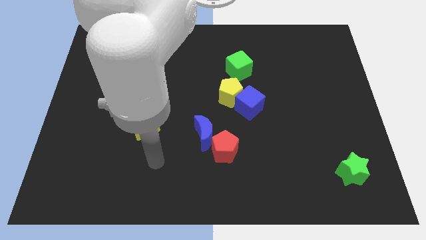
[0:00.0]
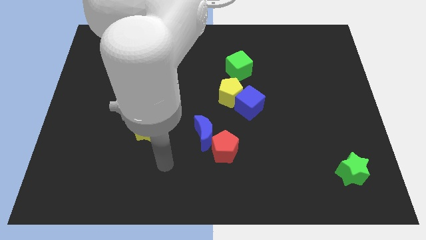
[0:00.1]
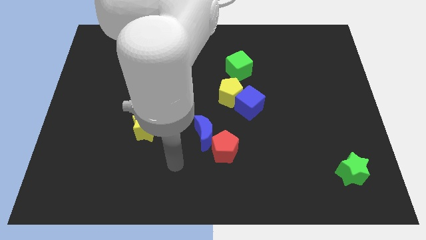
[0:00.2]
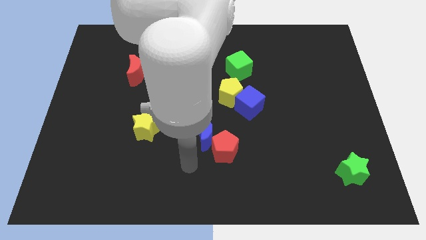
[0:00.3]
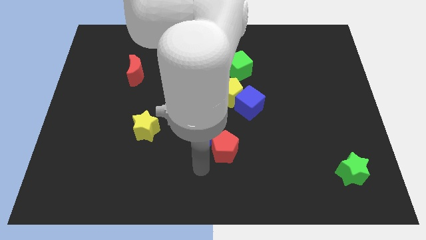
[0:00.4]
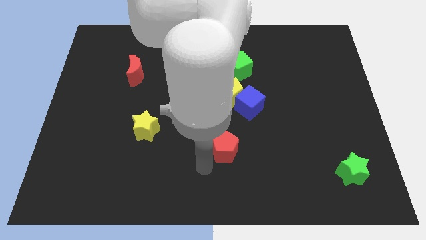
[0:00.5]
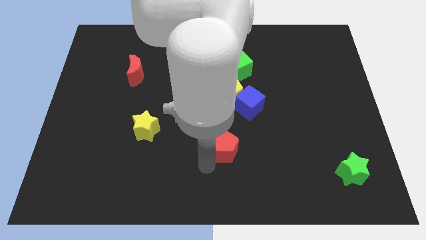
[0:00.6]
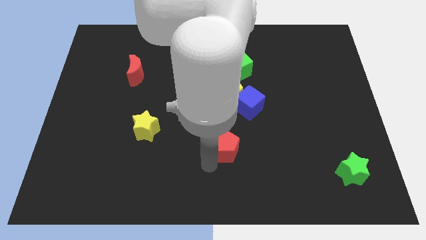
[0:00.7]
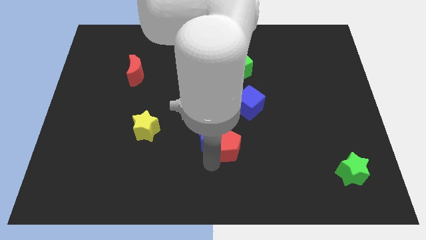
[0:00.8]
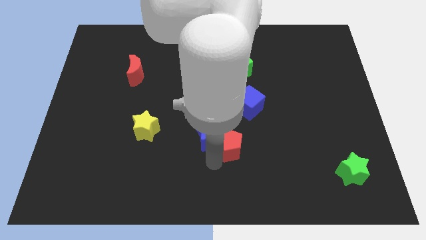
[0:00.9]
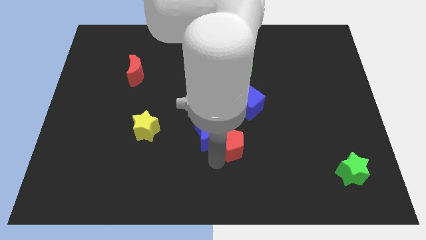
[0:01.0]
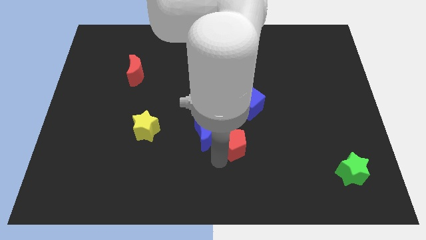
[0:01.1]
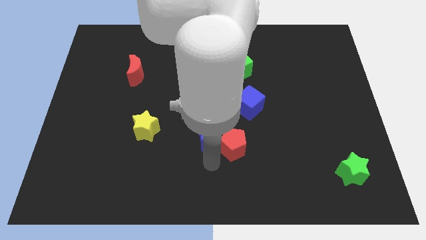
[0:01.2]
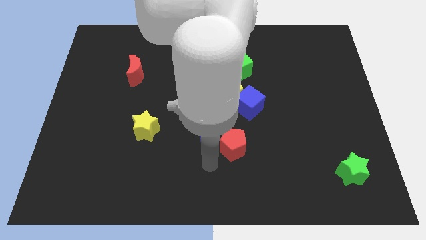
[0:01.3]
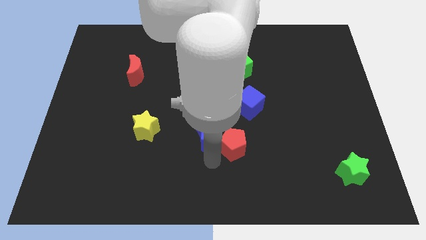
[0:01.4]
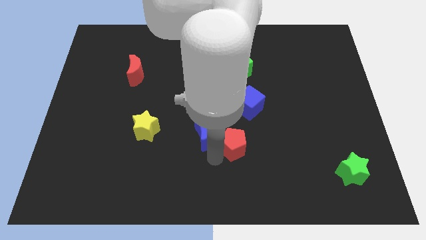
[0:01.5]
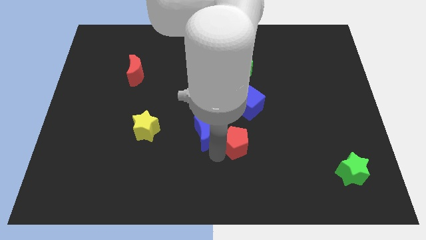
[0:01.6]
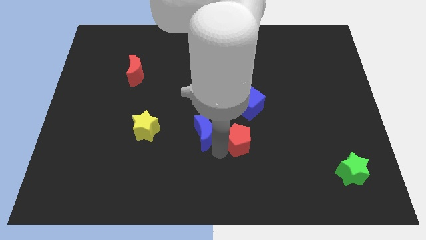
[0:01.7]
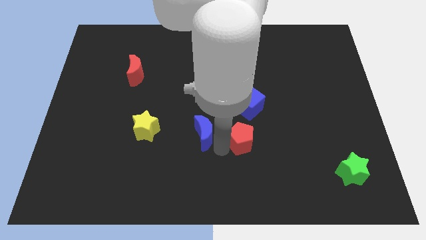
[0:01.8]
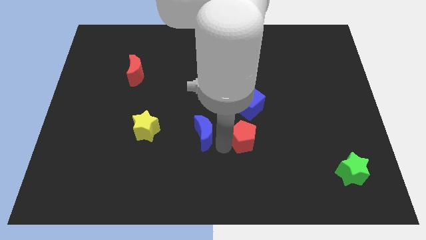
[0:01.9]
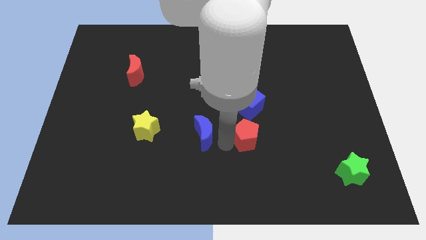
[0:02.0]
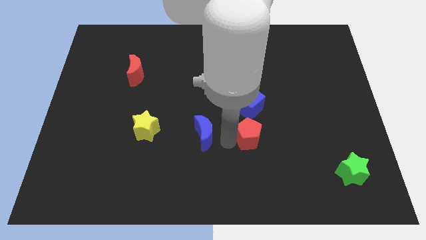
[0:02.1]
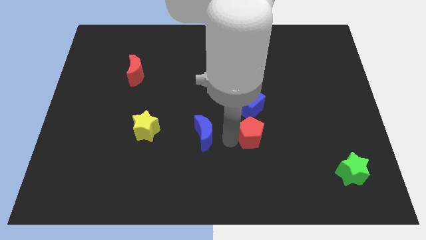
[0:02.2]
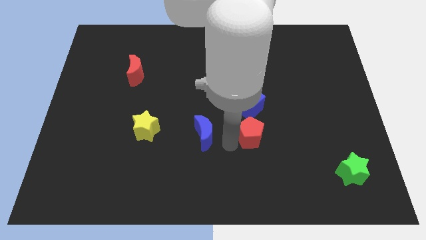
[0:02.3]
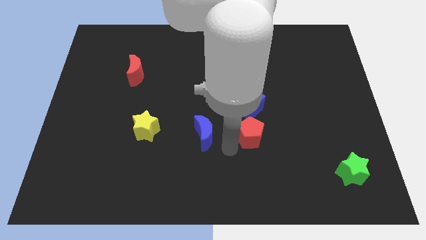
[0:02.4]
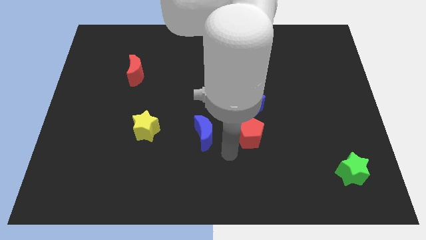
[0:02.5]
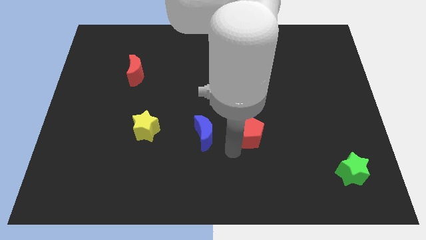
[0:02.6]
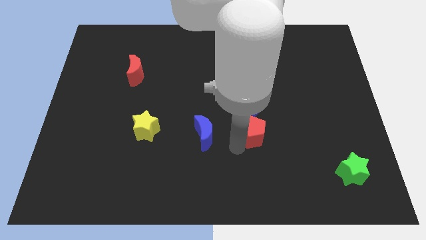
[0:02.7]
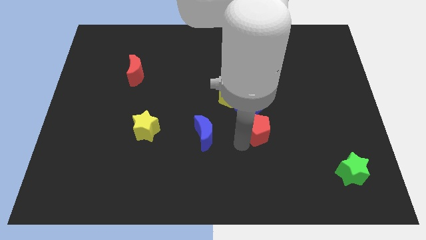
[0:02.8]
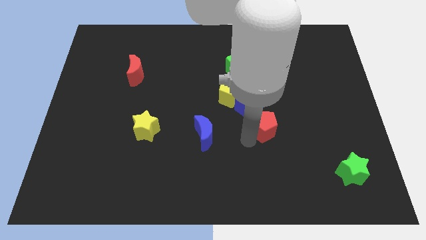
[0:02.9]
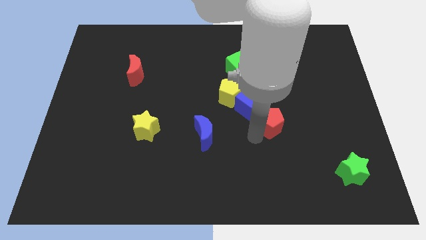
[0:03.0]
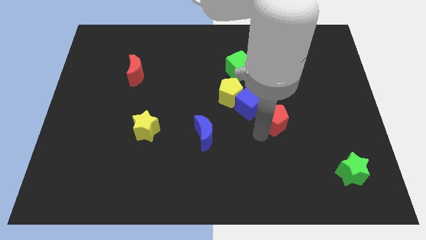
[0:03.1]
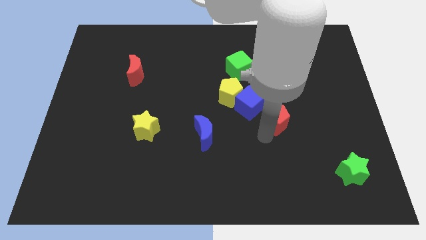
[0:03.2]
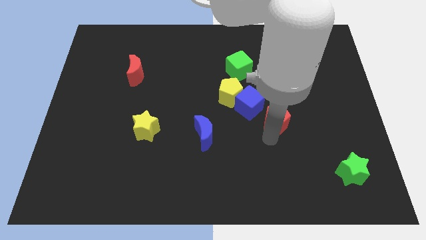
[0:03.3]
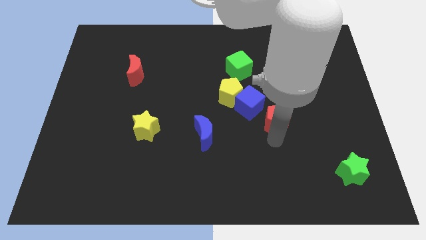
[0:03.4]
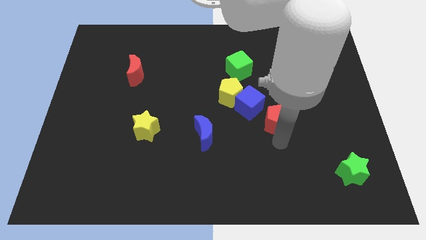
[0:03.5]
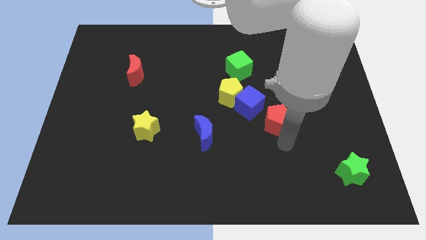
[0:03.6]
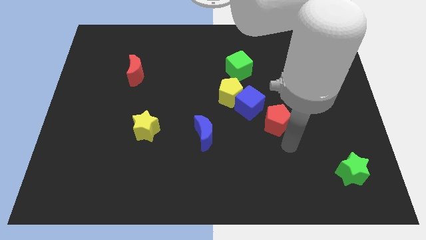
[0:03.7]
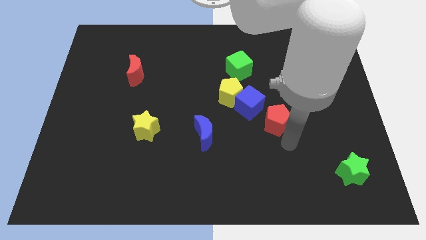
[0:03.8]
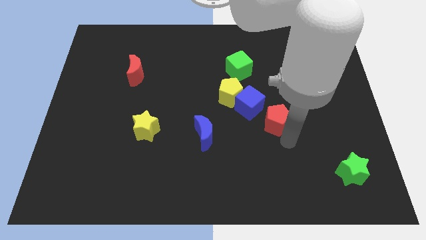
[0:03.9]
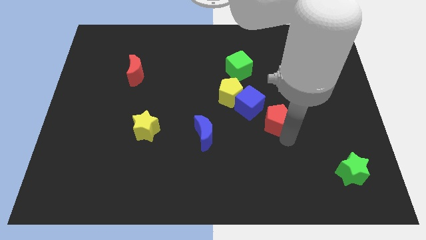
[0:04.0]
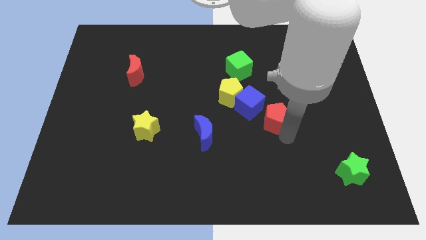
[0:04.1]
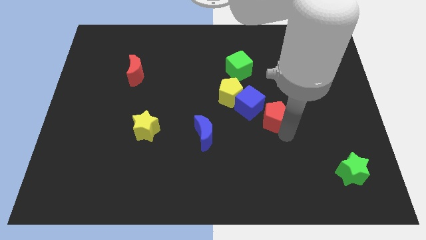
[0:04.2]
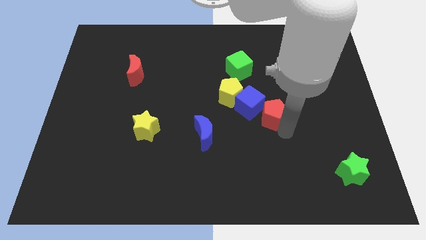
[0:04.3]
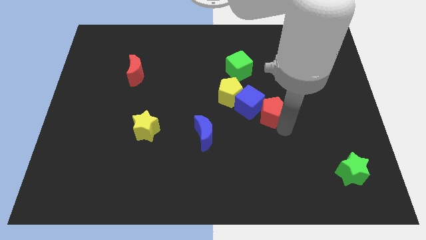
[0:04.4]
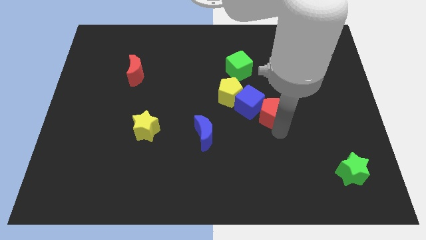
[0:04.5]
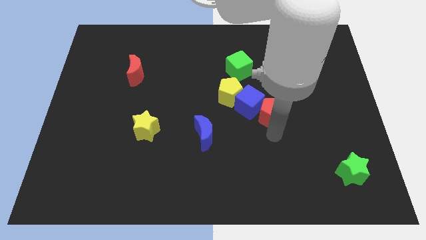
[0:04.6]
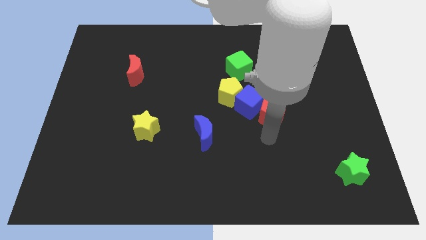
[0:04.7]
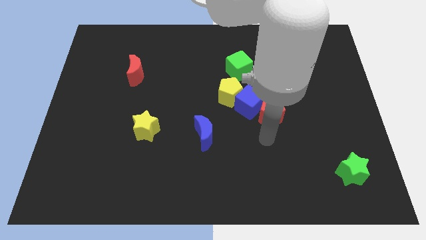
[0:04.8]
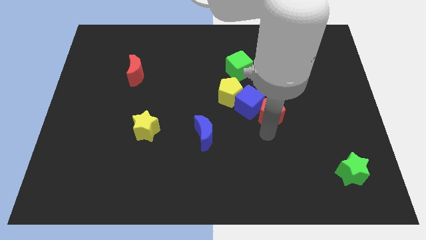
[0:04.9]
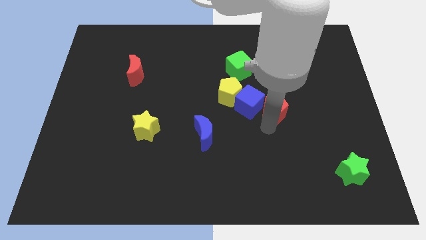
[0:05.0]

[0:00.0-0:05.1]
push the red pentagon right of the yellow pentagon

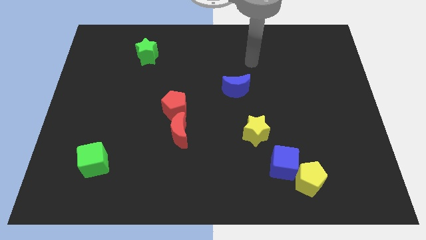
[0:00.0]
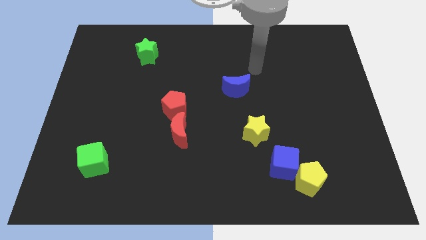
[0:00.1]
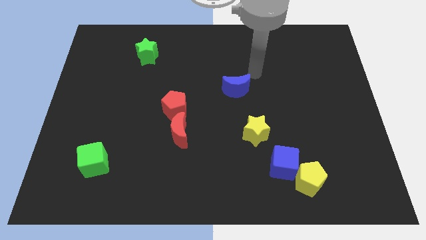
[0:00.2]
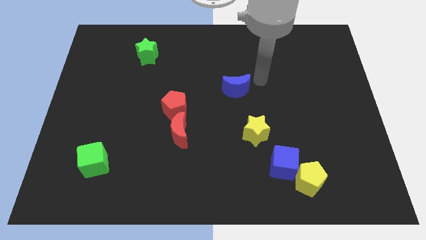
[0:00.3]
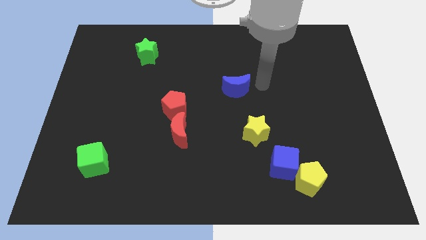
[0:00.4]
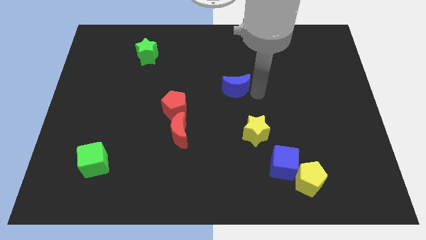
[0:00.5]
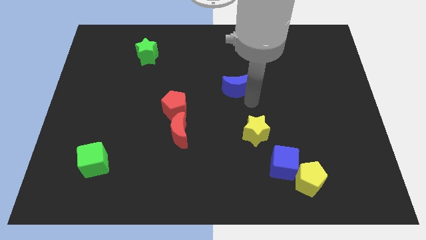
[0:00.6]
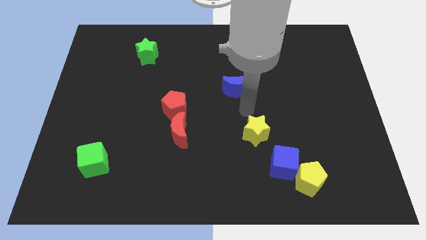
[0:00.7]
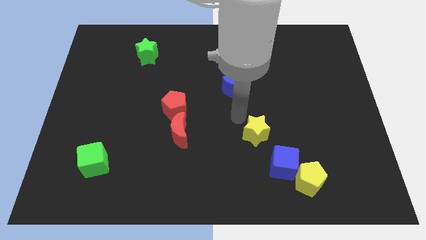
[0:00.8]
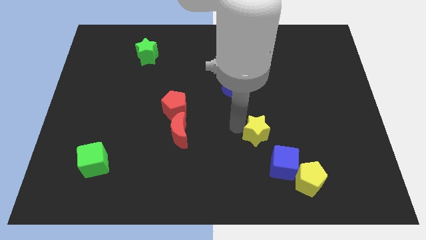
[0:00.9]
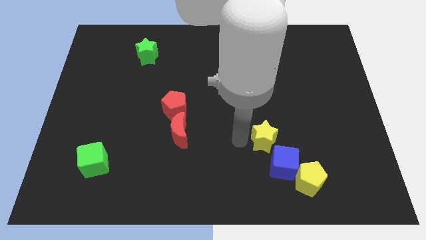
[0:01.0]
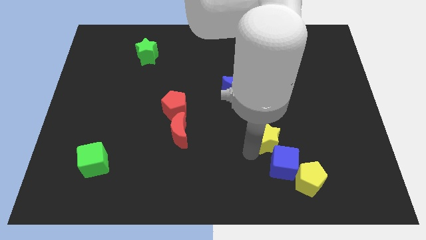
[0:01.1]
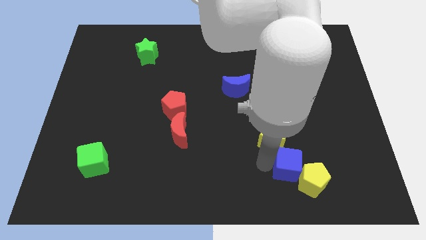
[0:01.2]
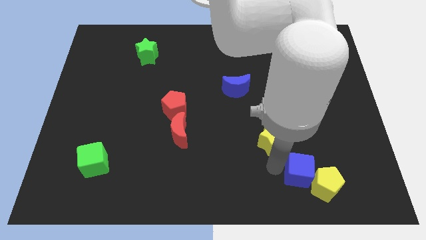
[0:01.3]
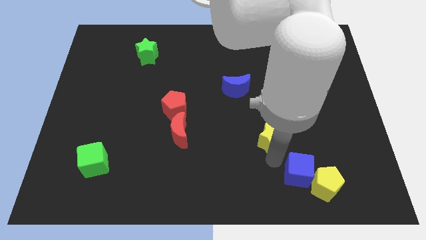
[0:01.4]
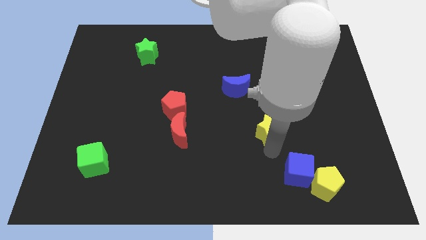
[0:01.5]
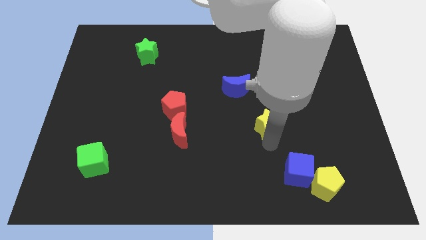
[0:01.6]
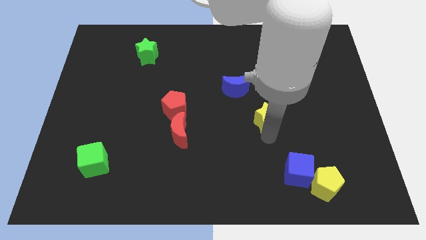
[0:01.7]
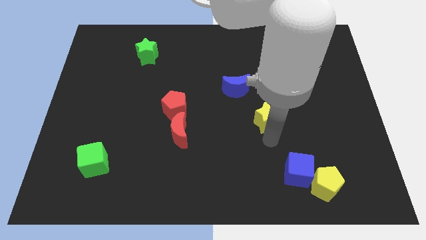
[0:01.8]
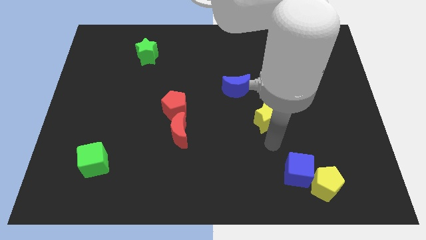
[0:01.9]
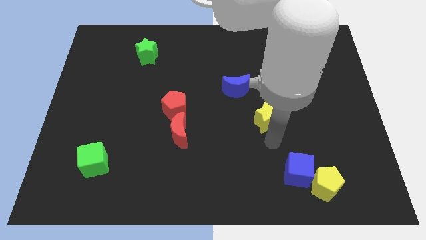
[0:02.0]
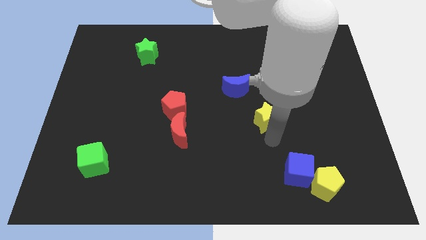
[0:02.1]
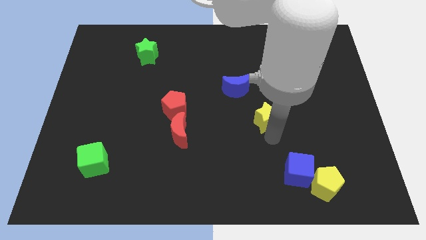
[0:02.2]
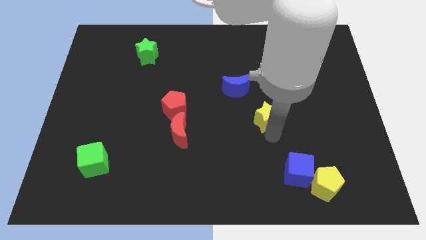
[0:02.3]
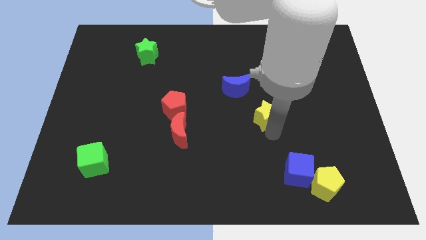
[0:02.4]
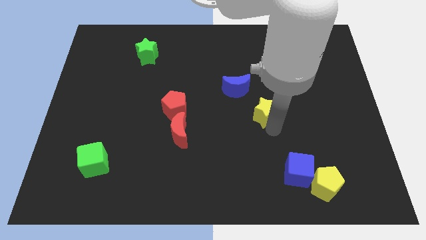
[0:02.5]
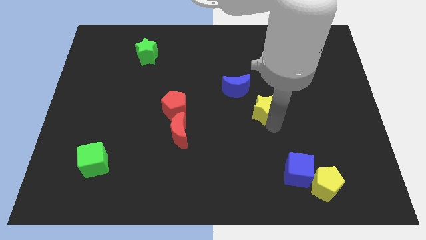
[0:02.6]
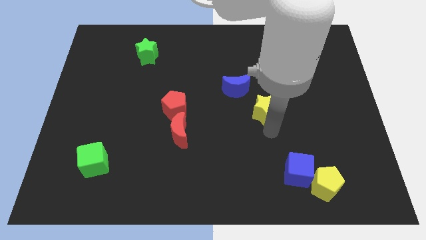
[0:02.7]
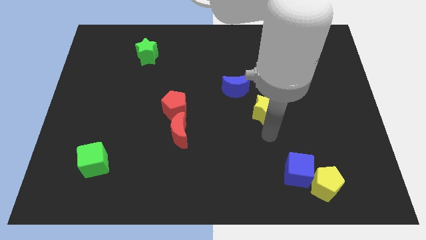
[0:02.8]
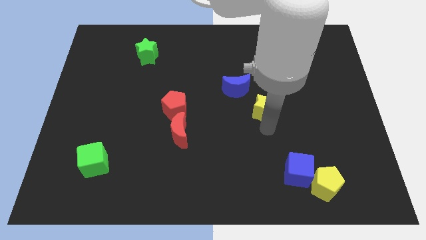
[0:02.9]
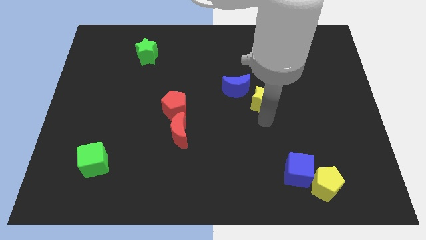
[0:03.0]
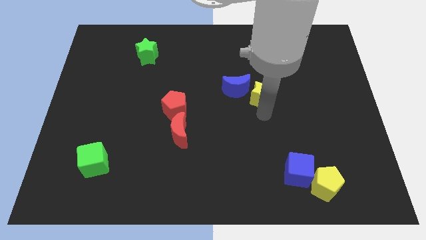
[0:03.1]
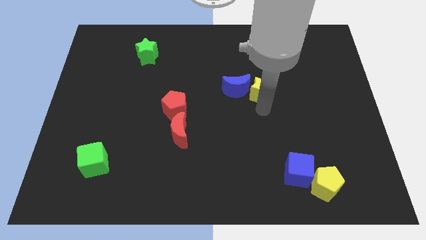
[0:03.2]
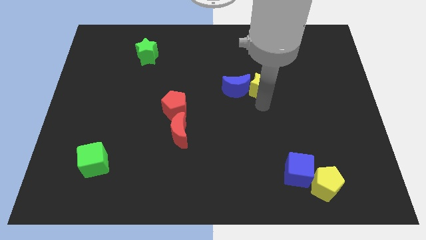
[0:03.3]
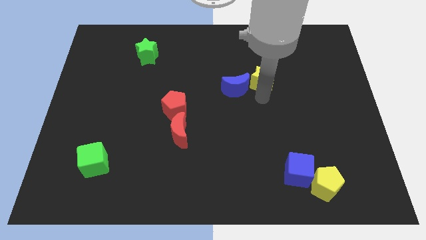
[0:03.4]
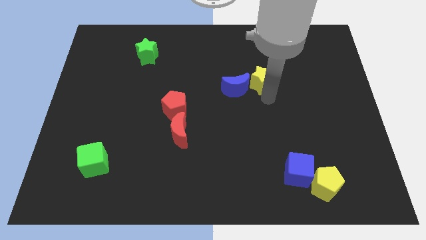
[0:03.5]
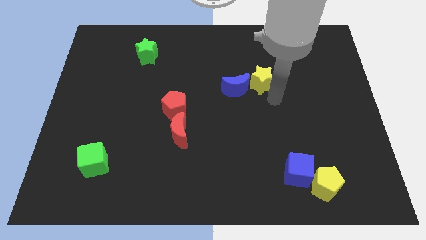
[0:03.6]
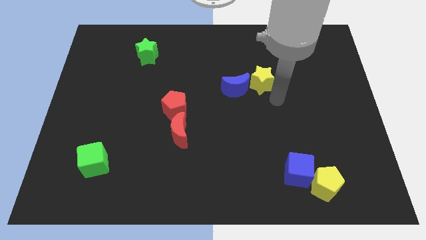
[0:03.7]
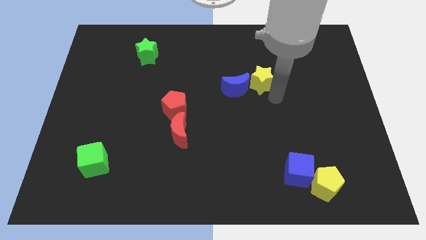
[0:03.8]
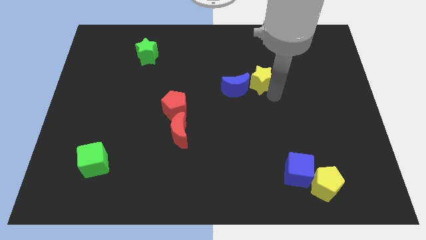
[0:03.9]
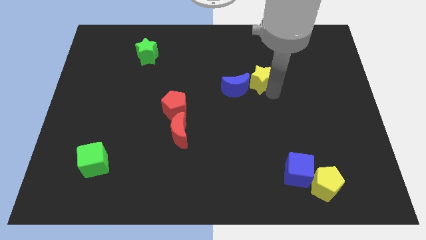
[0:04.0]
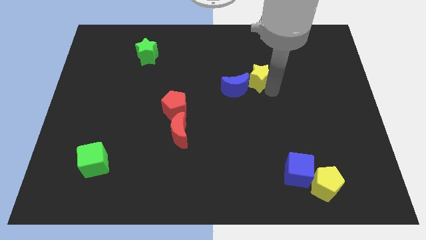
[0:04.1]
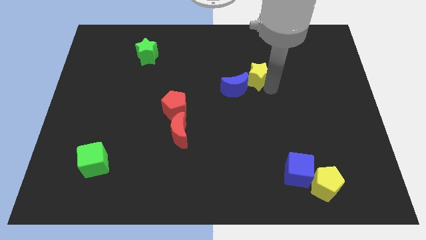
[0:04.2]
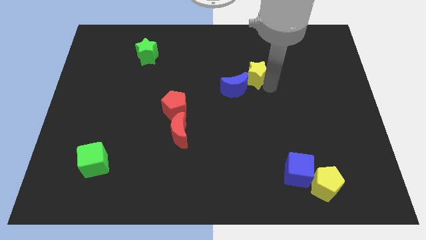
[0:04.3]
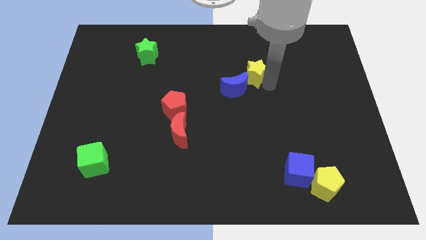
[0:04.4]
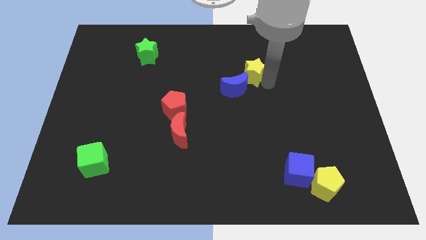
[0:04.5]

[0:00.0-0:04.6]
move the yellow star to the top side of the blue moon
